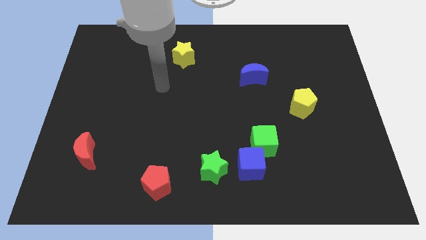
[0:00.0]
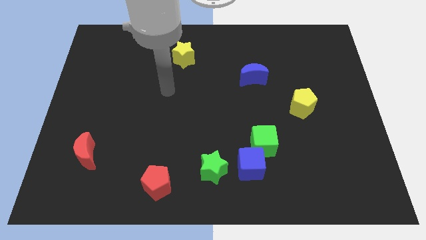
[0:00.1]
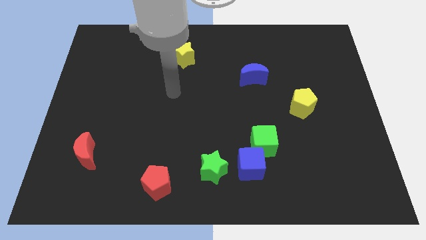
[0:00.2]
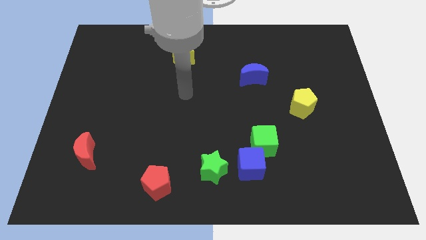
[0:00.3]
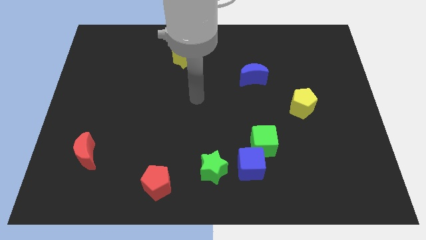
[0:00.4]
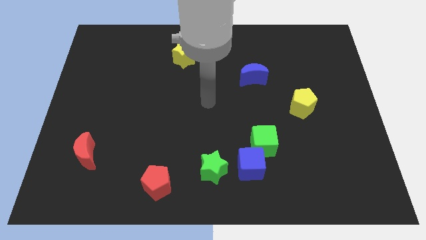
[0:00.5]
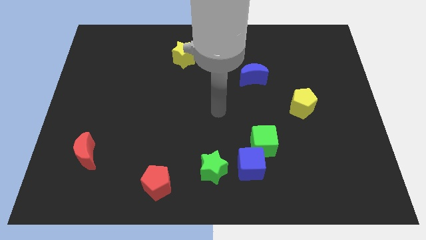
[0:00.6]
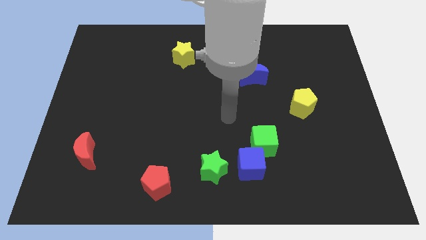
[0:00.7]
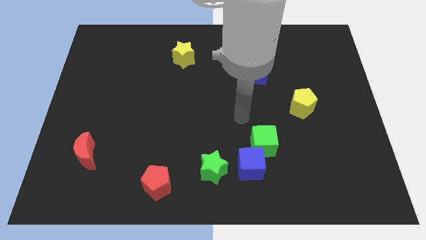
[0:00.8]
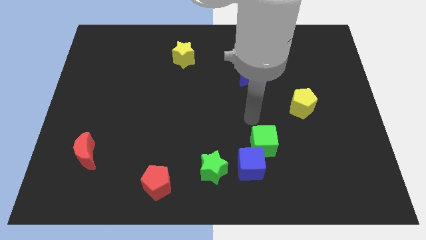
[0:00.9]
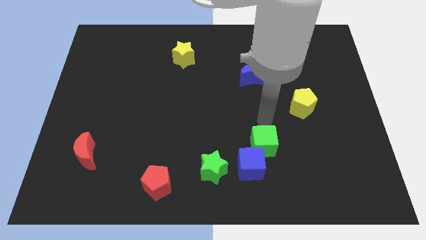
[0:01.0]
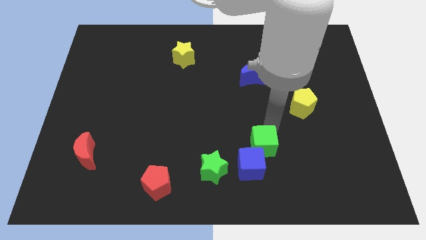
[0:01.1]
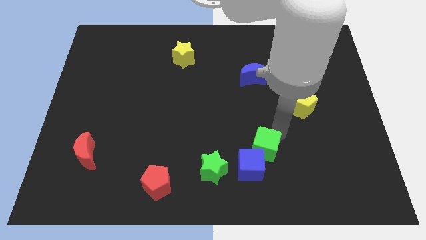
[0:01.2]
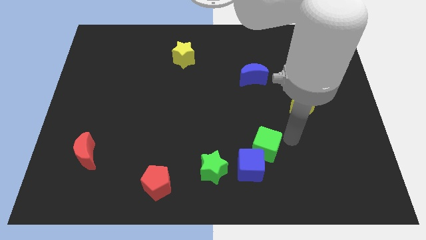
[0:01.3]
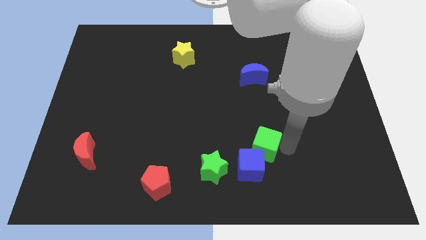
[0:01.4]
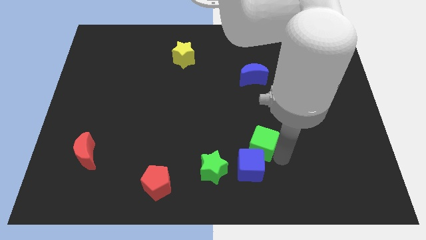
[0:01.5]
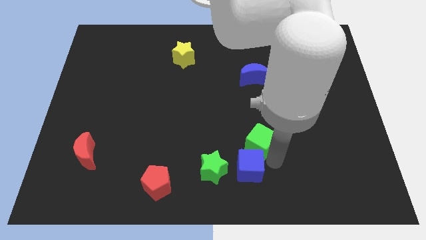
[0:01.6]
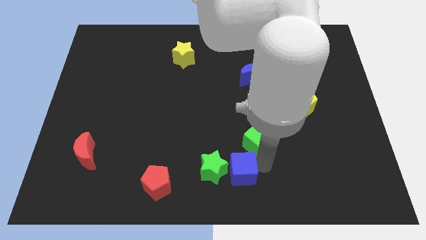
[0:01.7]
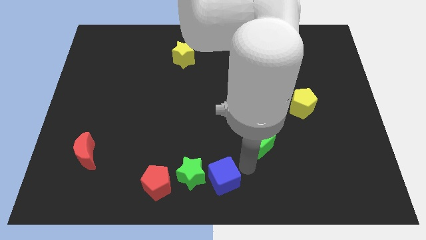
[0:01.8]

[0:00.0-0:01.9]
move the green cube away from the blue cube

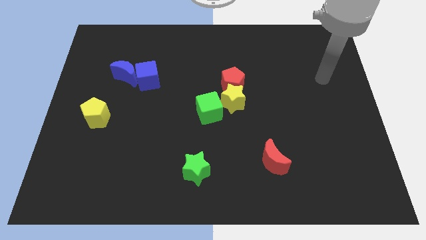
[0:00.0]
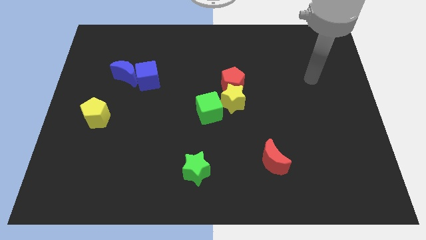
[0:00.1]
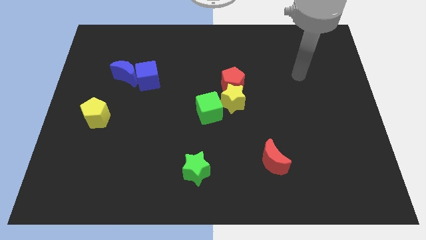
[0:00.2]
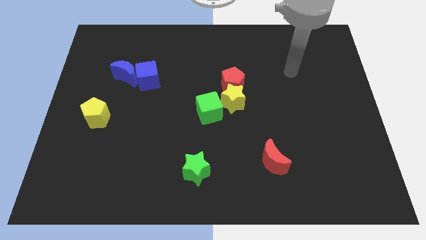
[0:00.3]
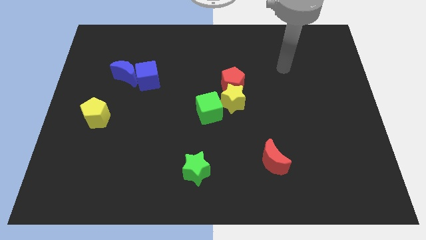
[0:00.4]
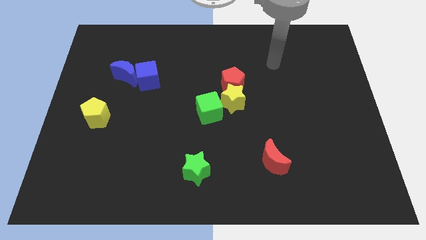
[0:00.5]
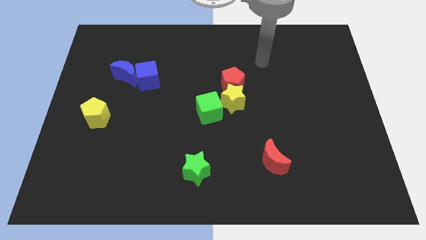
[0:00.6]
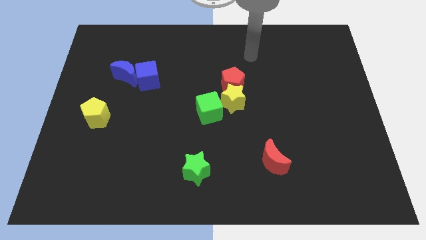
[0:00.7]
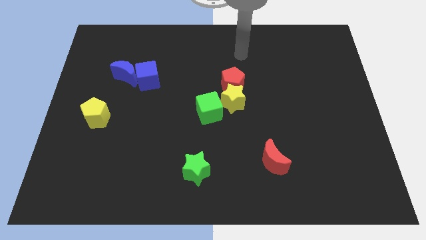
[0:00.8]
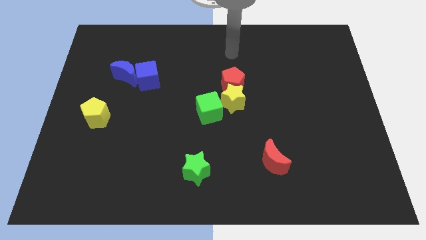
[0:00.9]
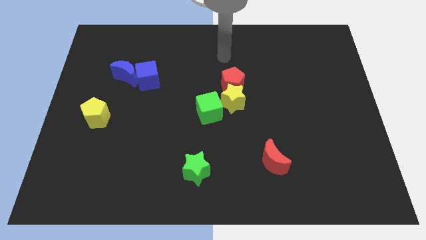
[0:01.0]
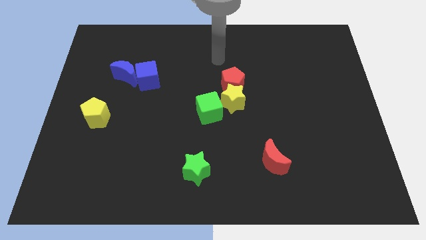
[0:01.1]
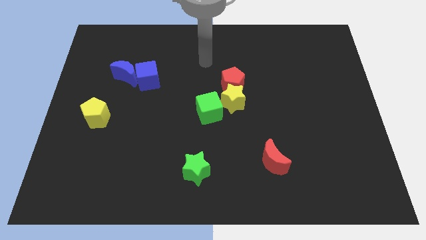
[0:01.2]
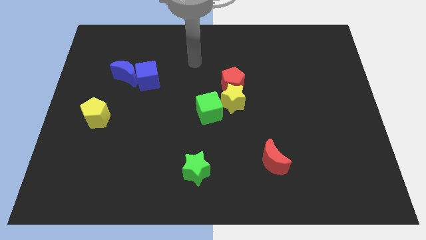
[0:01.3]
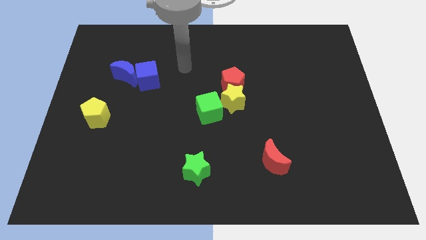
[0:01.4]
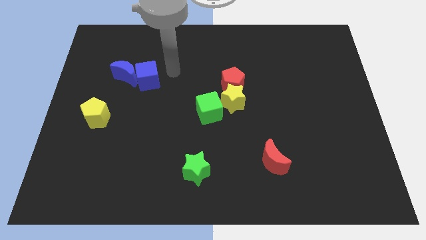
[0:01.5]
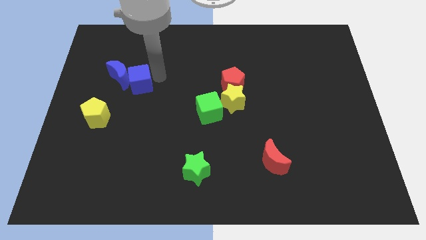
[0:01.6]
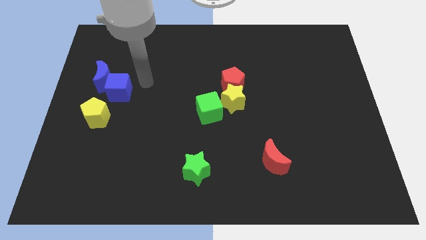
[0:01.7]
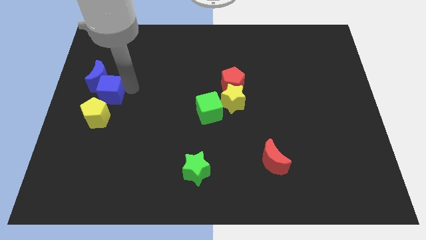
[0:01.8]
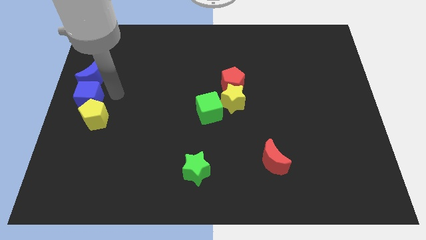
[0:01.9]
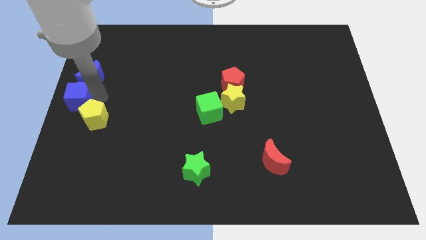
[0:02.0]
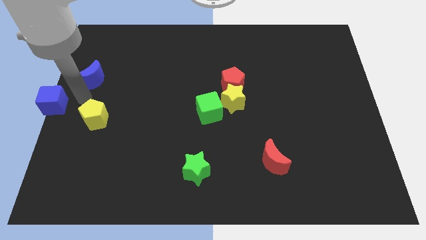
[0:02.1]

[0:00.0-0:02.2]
separate the blue moon from the blue cube

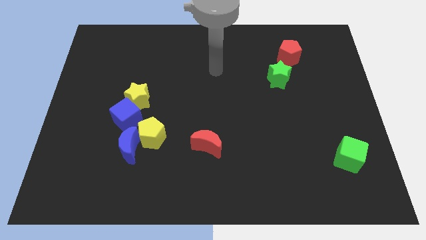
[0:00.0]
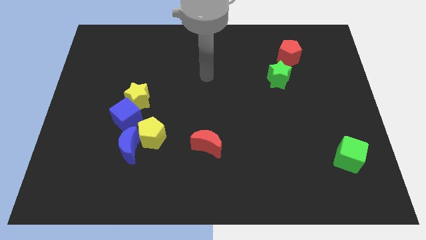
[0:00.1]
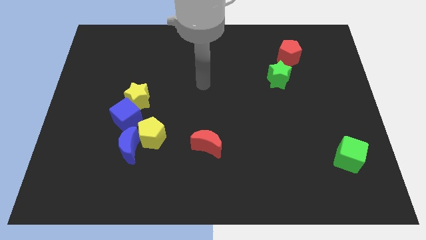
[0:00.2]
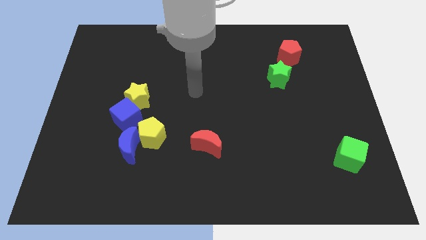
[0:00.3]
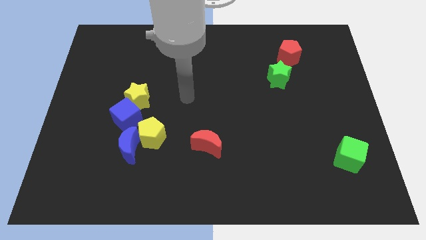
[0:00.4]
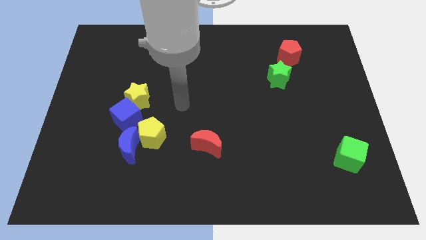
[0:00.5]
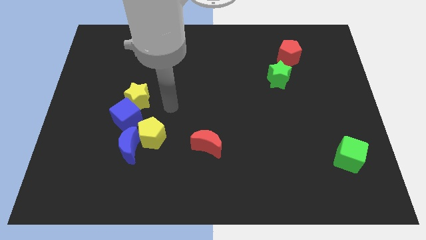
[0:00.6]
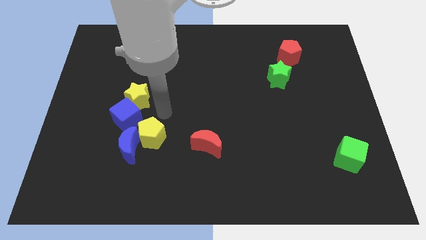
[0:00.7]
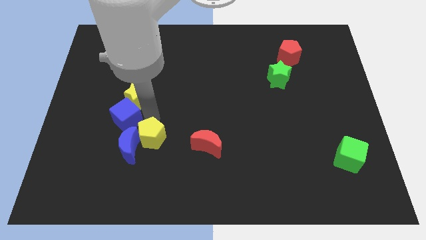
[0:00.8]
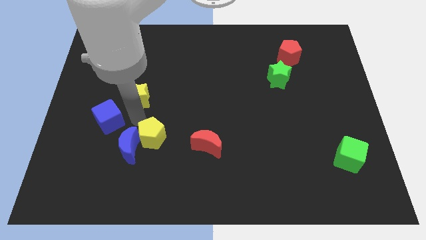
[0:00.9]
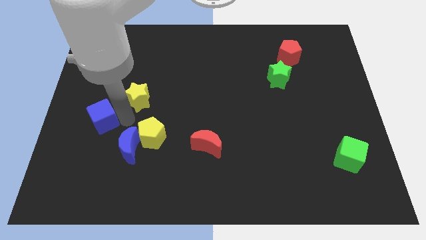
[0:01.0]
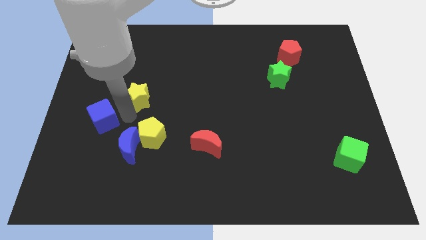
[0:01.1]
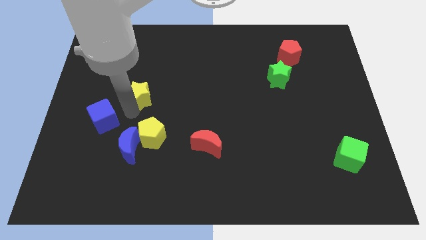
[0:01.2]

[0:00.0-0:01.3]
pull the yellow star apart from the blue cube

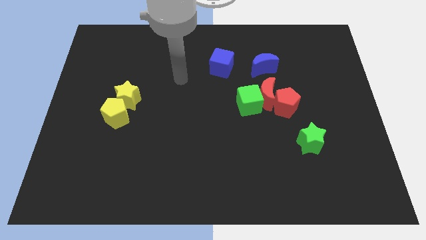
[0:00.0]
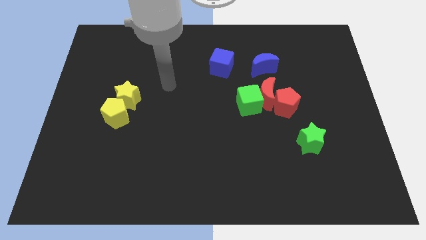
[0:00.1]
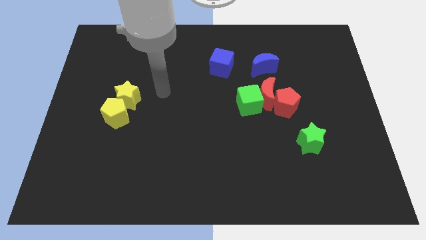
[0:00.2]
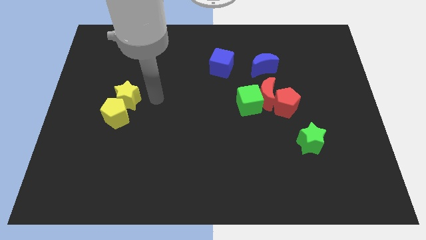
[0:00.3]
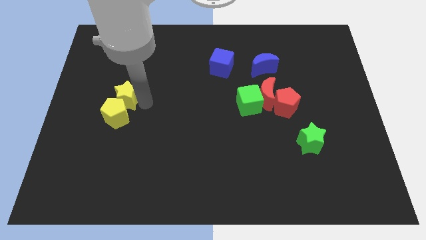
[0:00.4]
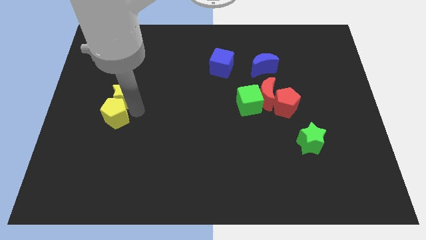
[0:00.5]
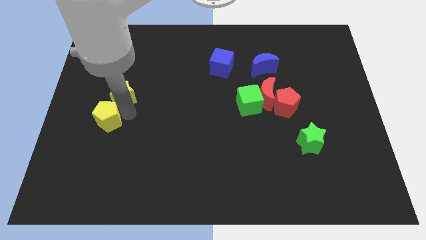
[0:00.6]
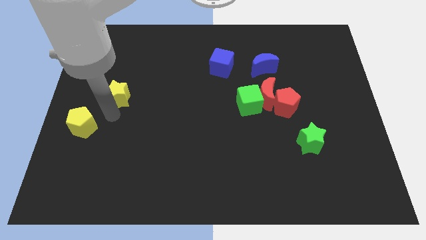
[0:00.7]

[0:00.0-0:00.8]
separate the yellow star from the yellow pentagon

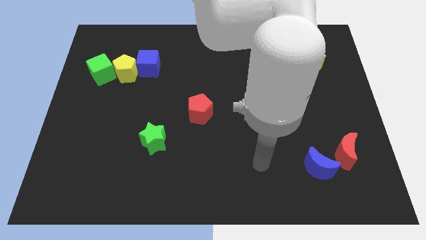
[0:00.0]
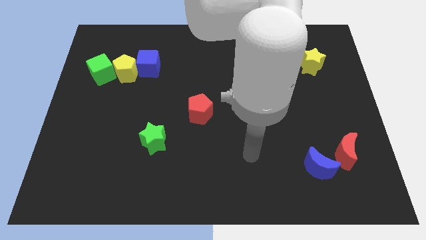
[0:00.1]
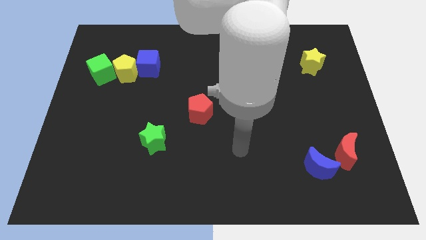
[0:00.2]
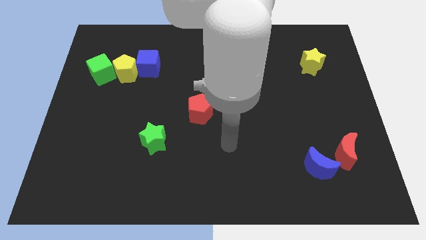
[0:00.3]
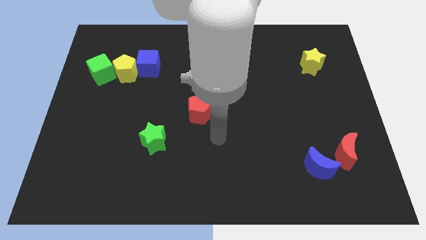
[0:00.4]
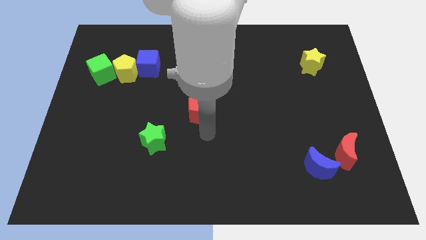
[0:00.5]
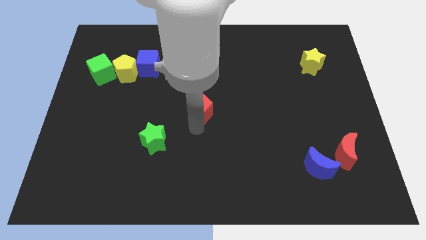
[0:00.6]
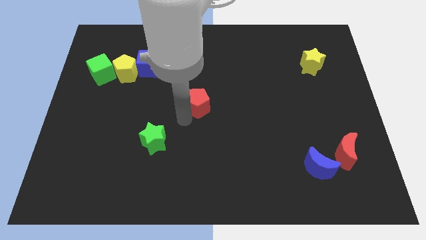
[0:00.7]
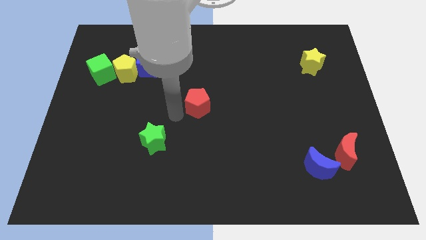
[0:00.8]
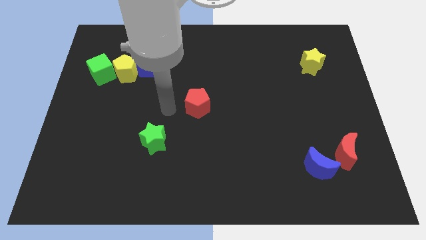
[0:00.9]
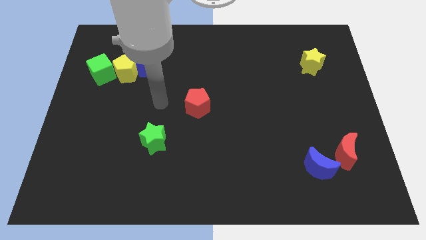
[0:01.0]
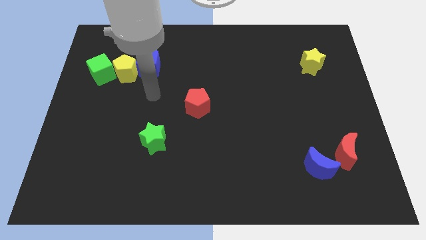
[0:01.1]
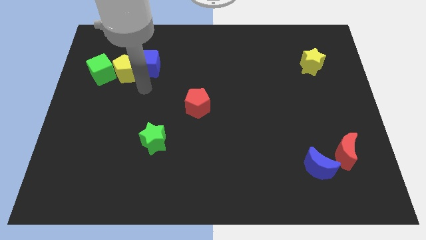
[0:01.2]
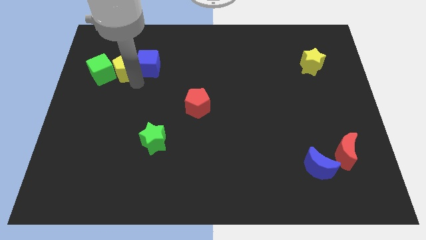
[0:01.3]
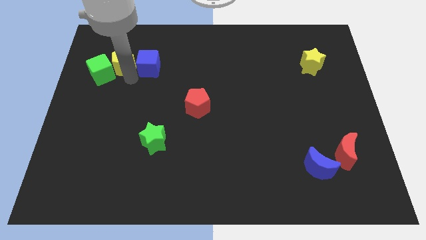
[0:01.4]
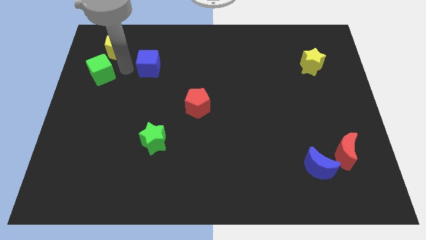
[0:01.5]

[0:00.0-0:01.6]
separate the blue cube from the yellow pentagon

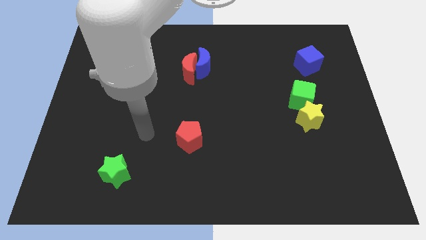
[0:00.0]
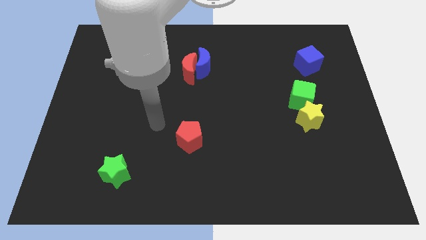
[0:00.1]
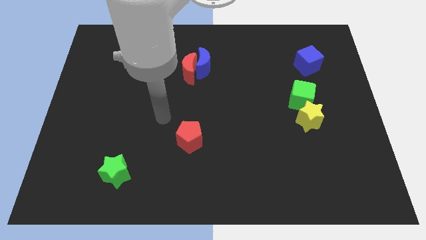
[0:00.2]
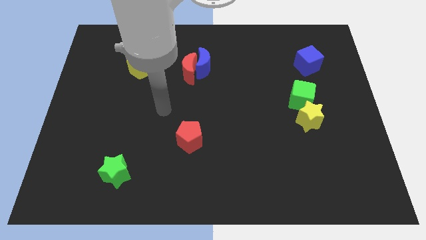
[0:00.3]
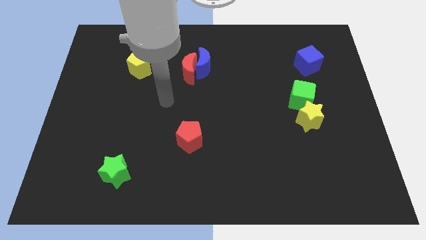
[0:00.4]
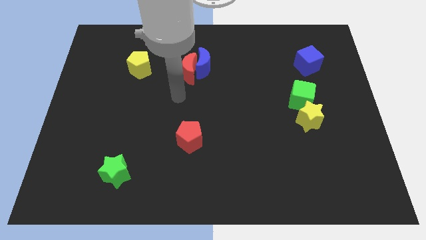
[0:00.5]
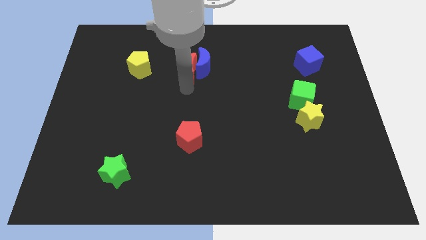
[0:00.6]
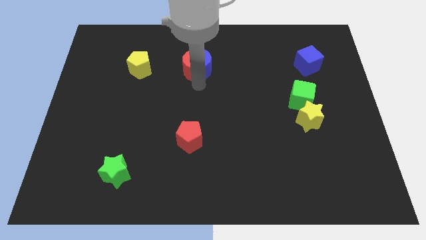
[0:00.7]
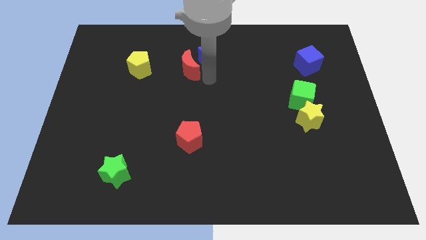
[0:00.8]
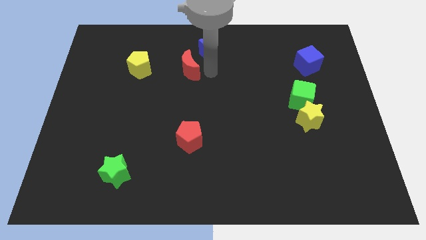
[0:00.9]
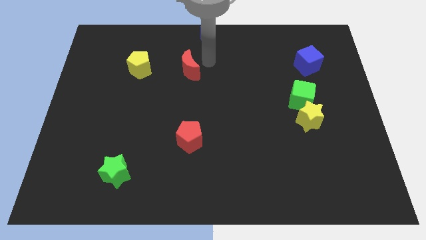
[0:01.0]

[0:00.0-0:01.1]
separate the red moon from the blue moon

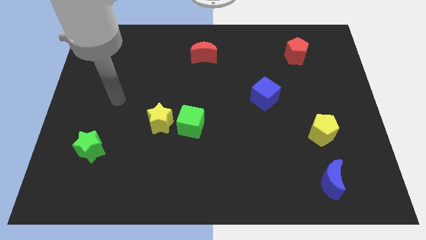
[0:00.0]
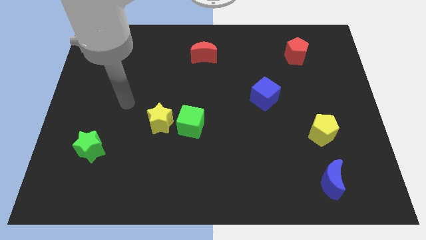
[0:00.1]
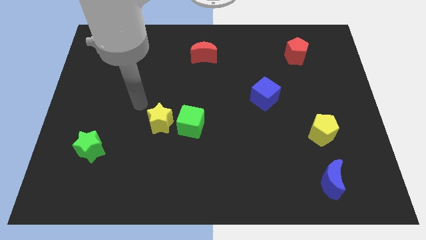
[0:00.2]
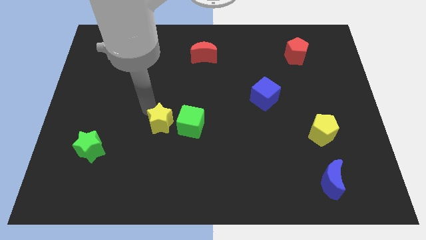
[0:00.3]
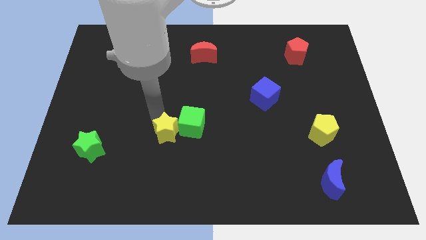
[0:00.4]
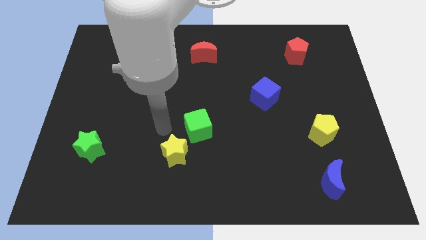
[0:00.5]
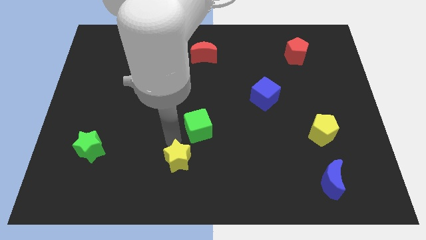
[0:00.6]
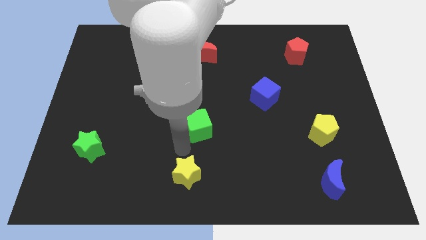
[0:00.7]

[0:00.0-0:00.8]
separate the green cube from the yellow star
